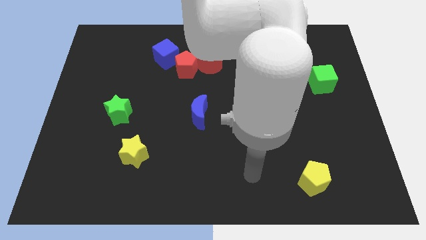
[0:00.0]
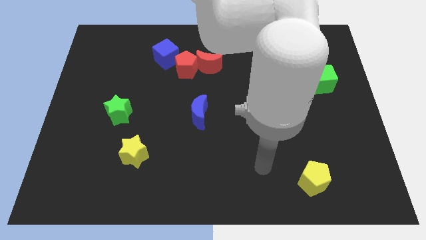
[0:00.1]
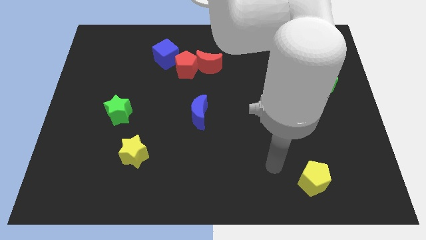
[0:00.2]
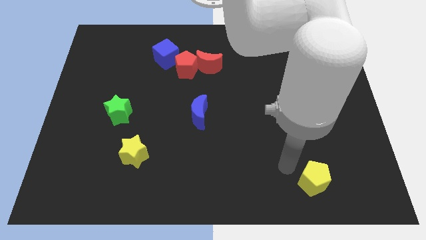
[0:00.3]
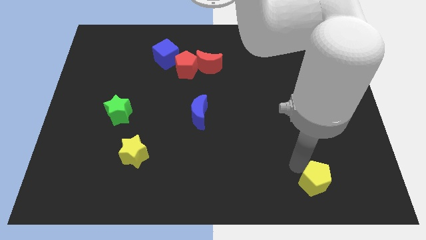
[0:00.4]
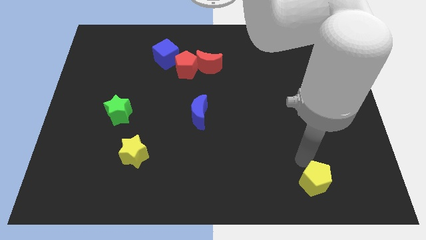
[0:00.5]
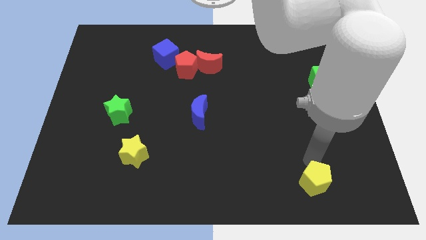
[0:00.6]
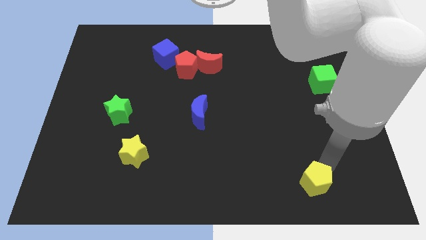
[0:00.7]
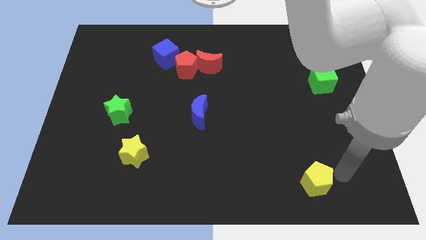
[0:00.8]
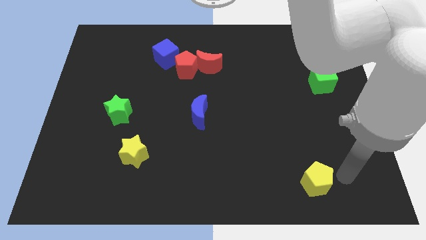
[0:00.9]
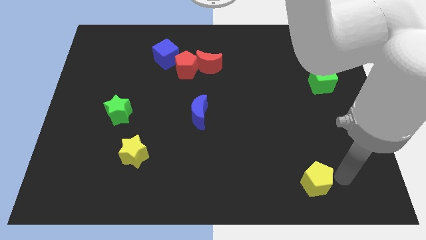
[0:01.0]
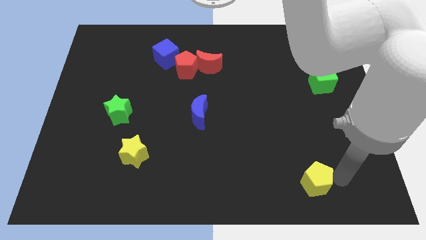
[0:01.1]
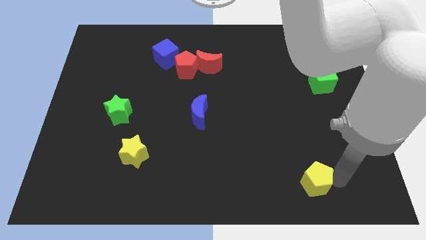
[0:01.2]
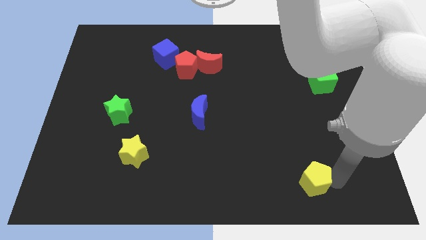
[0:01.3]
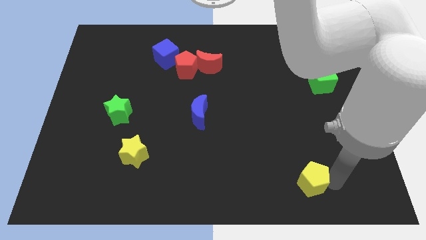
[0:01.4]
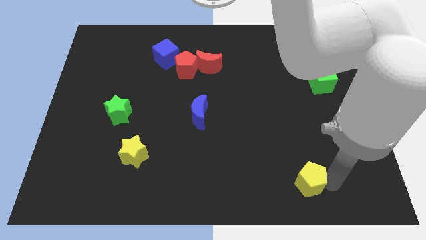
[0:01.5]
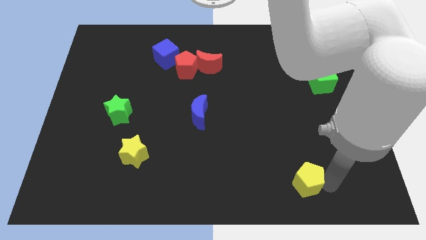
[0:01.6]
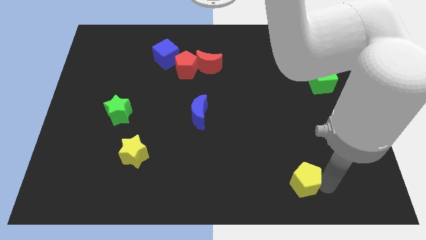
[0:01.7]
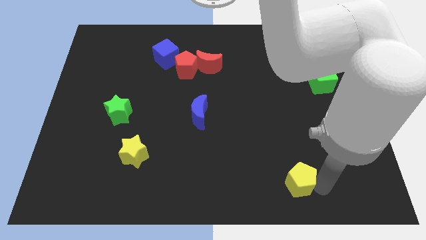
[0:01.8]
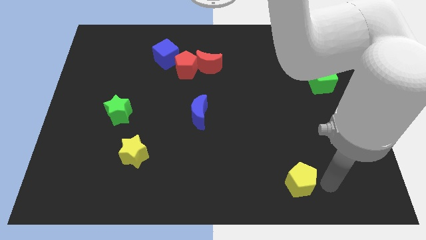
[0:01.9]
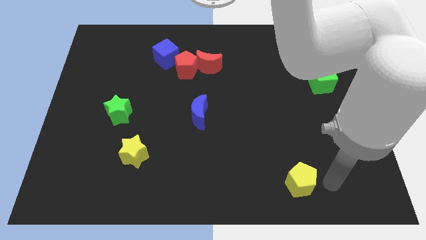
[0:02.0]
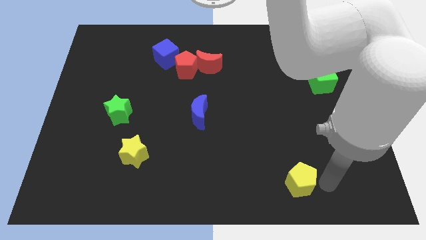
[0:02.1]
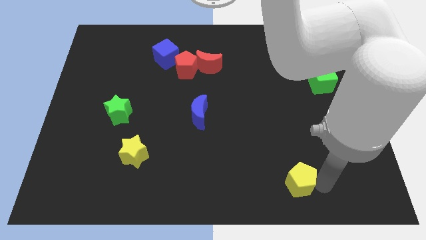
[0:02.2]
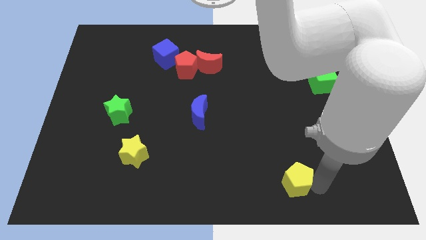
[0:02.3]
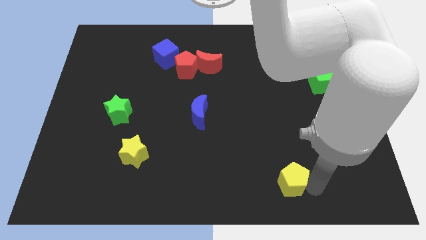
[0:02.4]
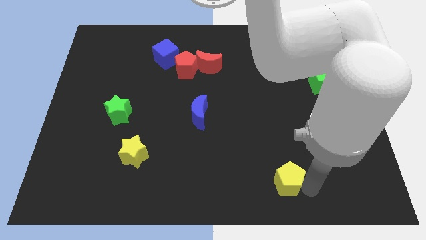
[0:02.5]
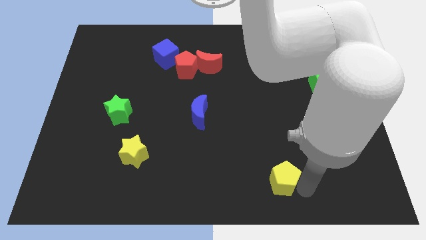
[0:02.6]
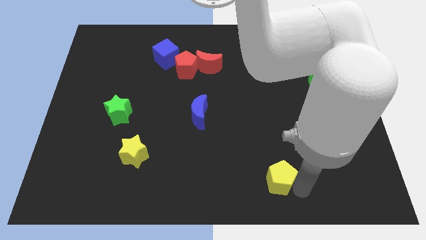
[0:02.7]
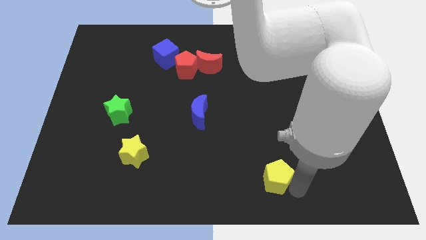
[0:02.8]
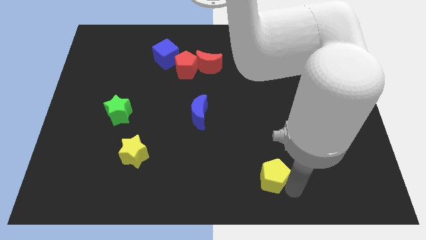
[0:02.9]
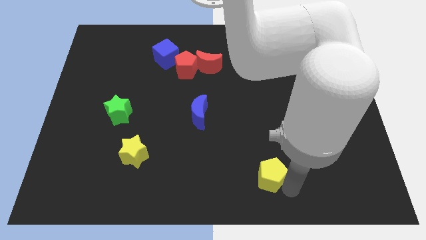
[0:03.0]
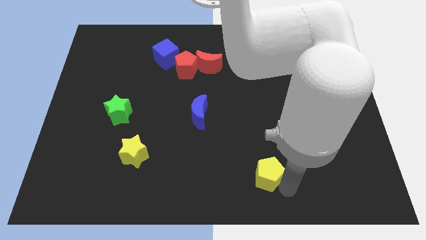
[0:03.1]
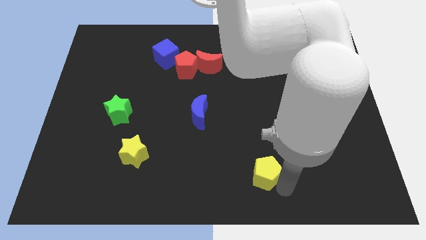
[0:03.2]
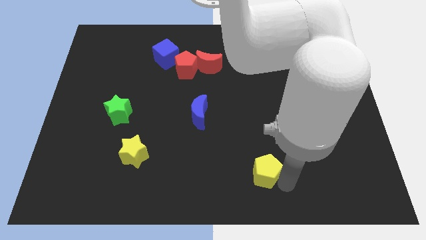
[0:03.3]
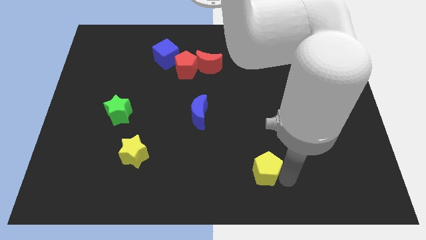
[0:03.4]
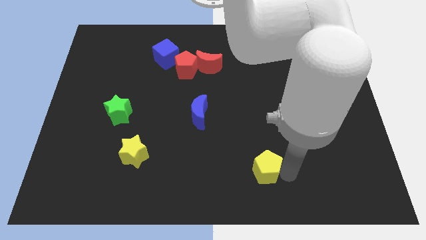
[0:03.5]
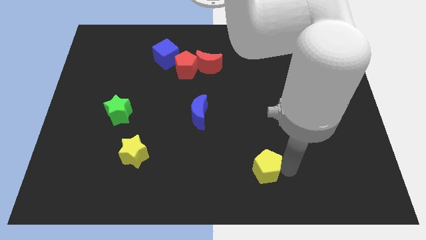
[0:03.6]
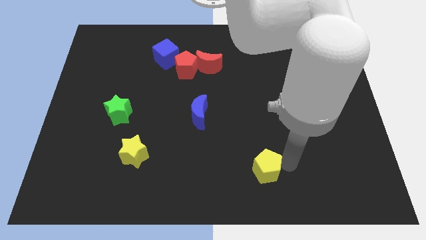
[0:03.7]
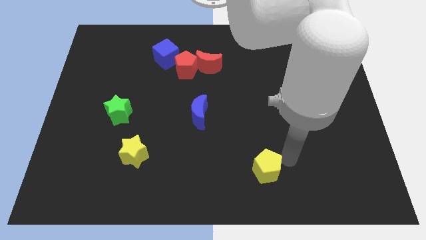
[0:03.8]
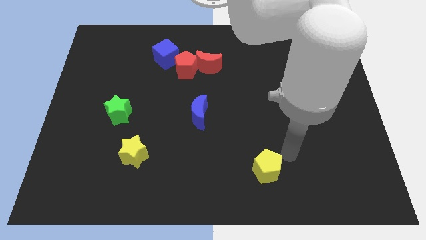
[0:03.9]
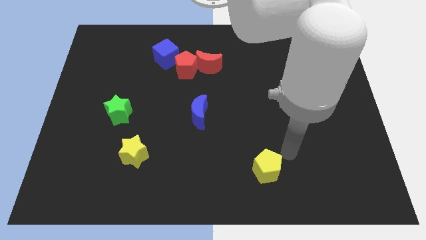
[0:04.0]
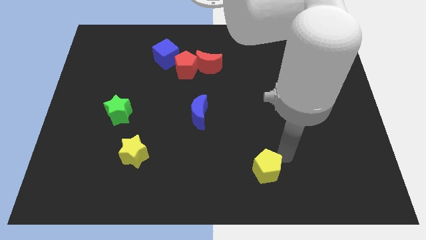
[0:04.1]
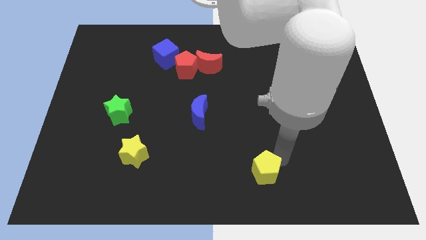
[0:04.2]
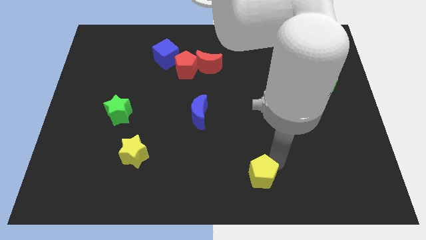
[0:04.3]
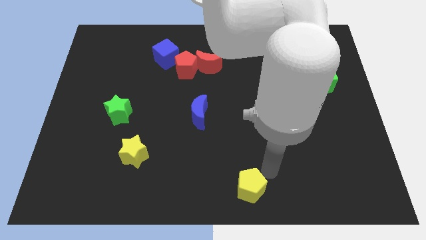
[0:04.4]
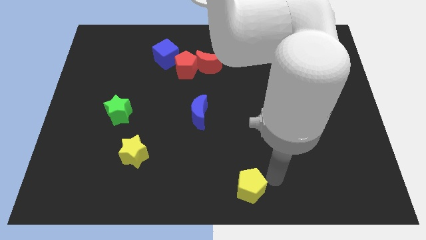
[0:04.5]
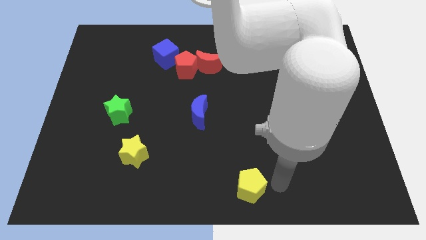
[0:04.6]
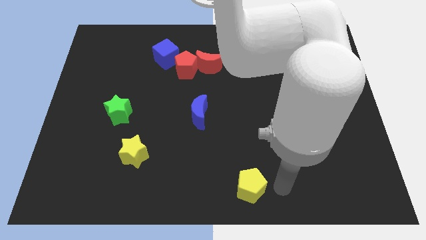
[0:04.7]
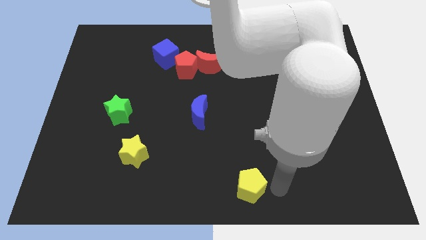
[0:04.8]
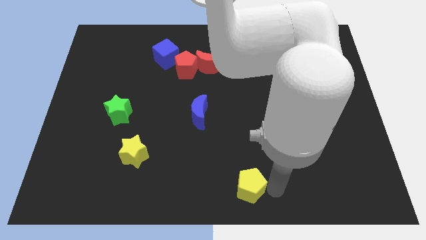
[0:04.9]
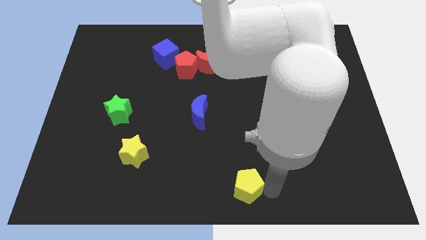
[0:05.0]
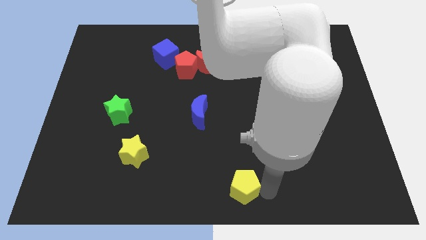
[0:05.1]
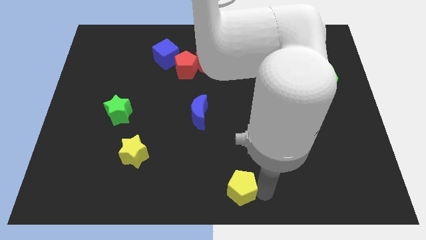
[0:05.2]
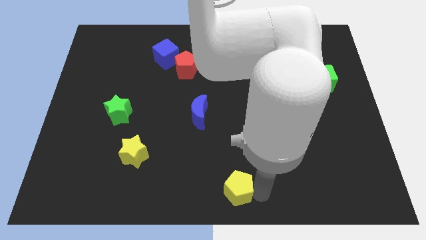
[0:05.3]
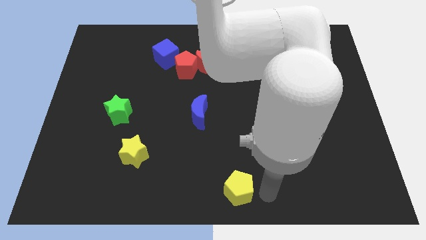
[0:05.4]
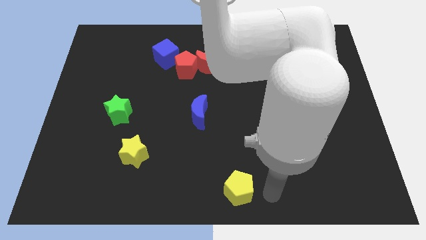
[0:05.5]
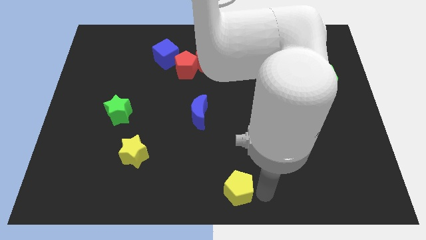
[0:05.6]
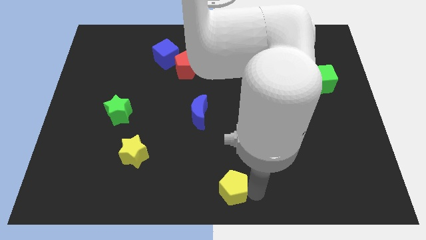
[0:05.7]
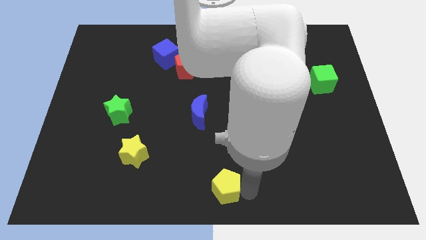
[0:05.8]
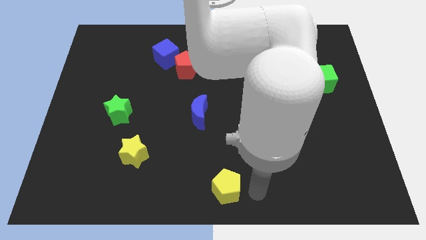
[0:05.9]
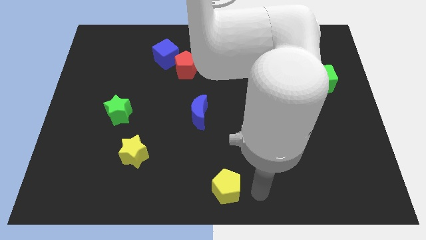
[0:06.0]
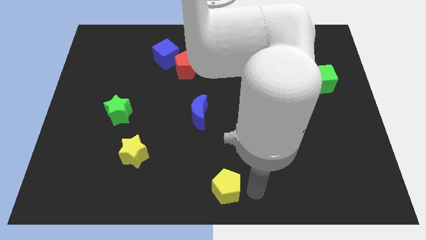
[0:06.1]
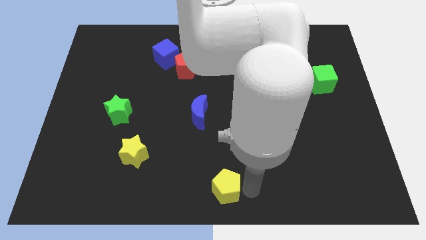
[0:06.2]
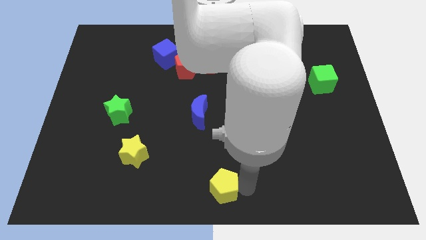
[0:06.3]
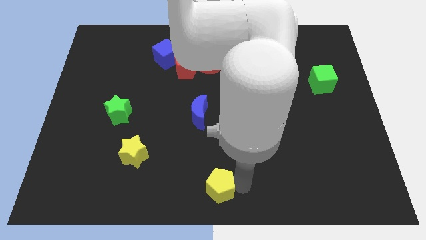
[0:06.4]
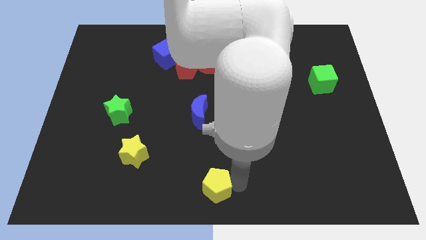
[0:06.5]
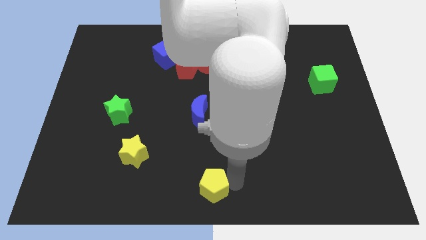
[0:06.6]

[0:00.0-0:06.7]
move the yellow pentagon to the left

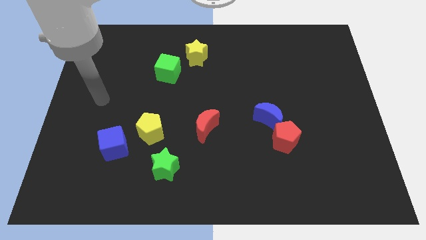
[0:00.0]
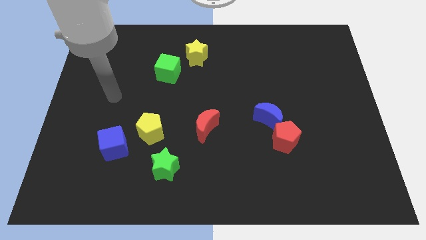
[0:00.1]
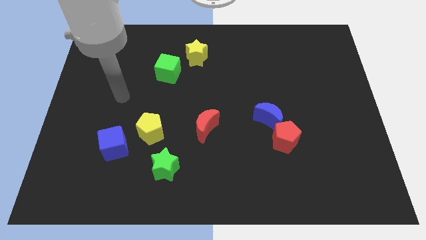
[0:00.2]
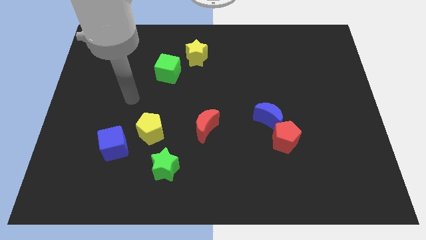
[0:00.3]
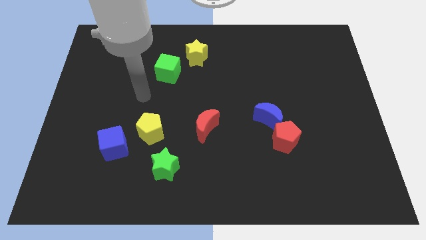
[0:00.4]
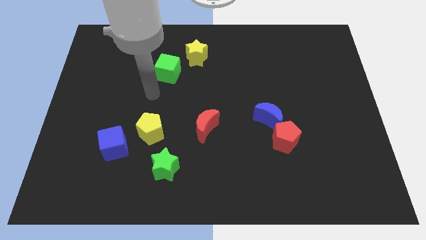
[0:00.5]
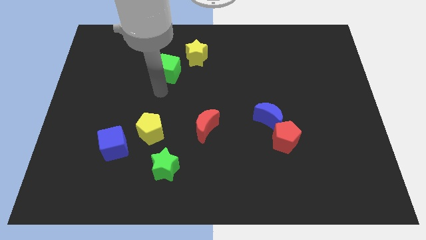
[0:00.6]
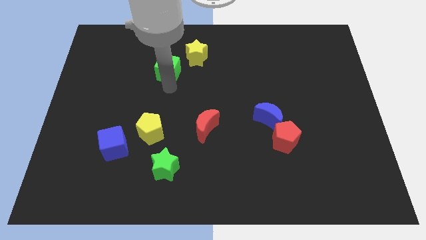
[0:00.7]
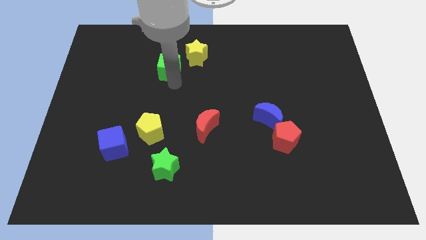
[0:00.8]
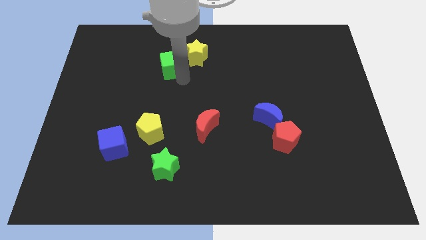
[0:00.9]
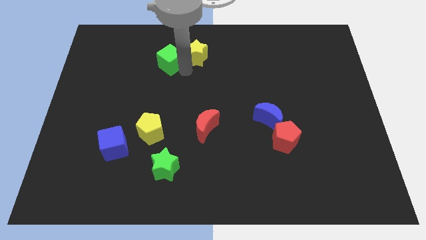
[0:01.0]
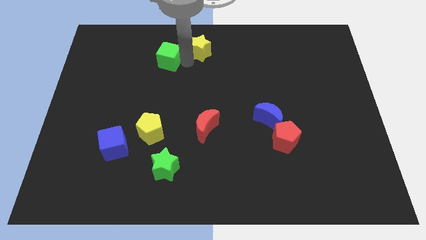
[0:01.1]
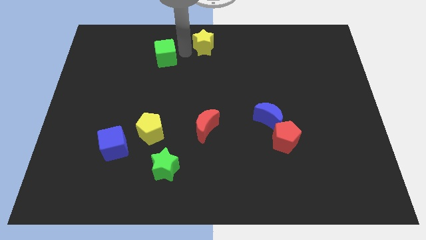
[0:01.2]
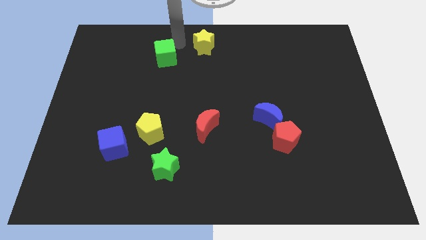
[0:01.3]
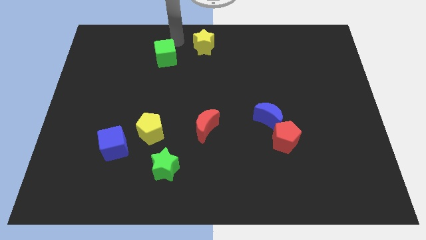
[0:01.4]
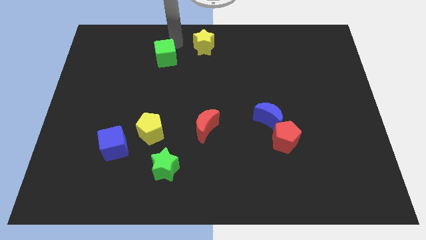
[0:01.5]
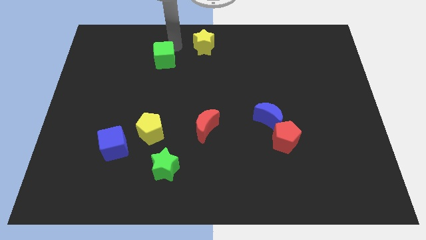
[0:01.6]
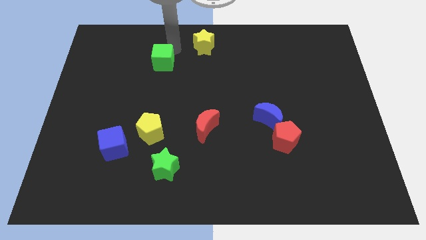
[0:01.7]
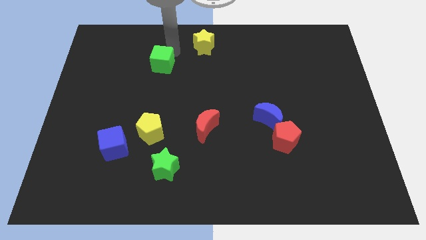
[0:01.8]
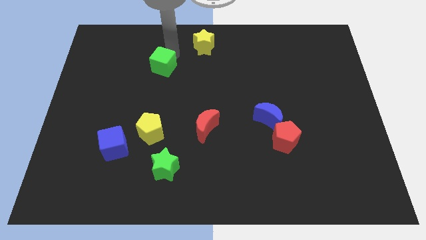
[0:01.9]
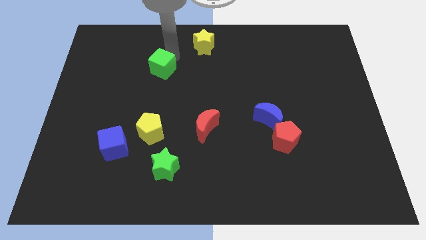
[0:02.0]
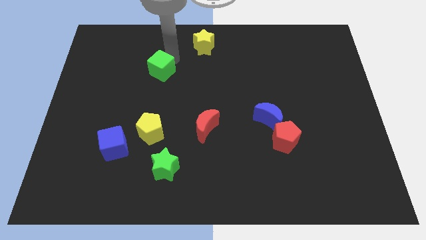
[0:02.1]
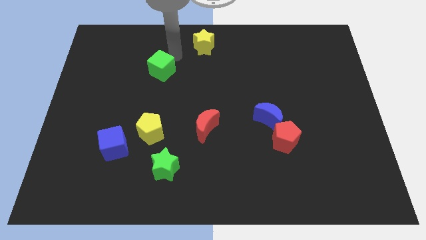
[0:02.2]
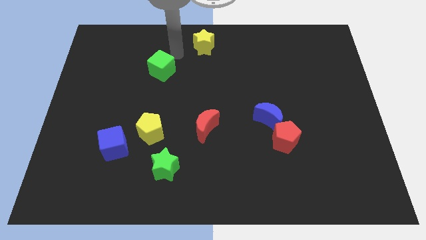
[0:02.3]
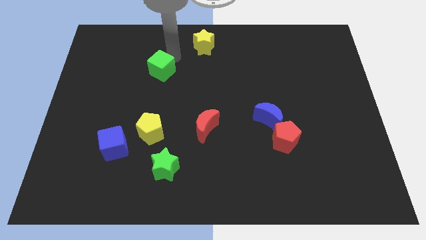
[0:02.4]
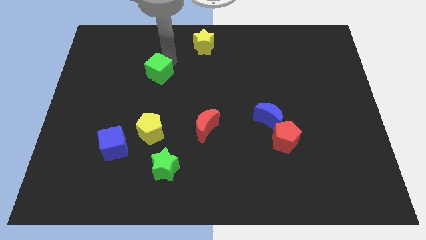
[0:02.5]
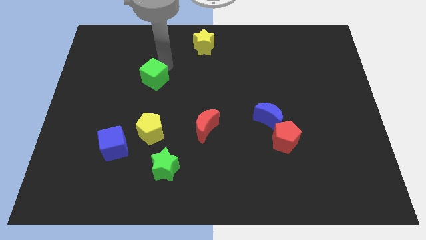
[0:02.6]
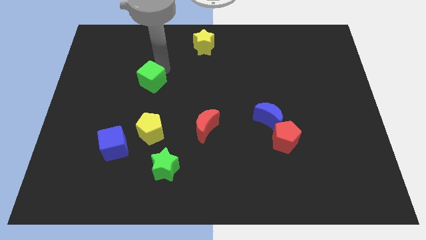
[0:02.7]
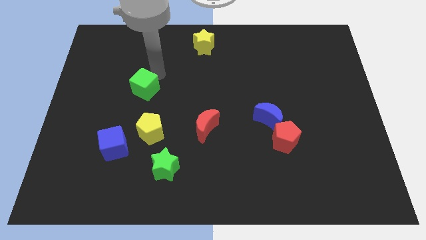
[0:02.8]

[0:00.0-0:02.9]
slightly move the green cube down and left
